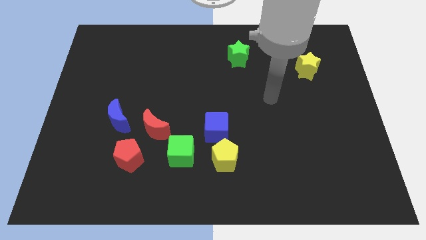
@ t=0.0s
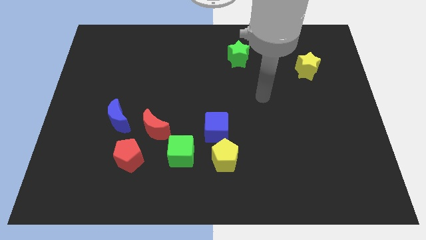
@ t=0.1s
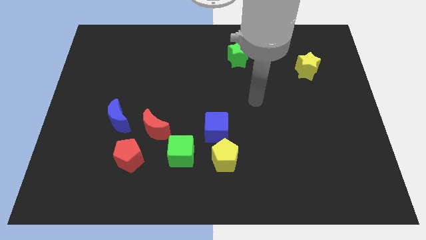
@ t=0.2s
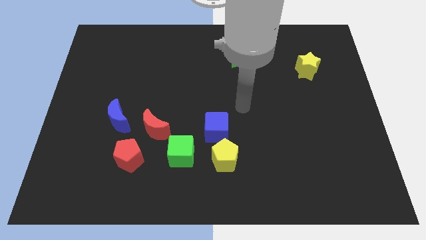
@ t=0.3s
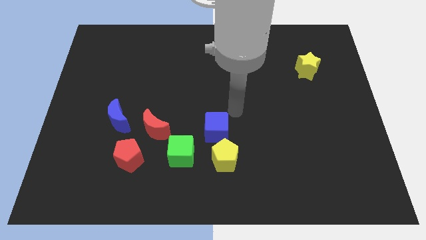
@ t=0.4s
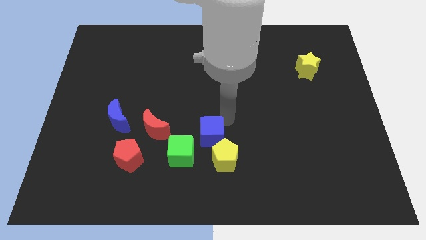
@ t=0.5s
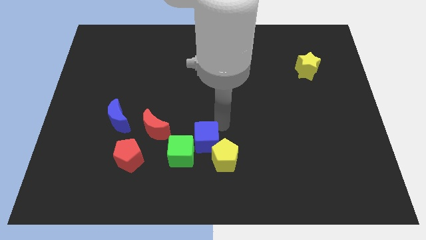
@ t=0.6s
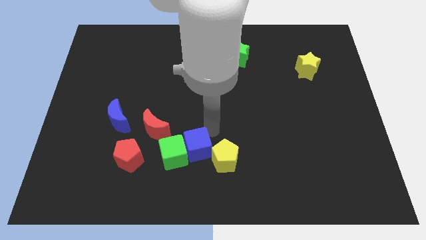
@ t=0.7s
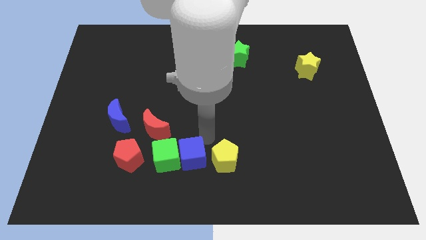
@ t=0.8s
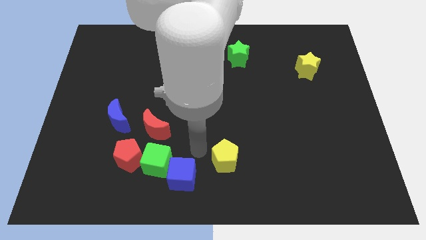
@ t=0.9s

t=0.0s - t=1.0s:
pull the yellow pentagon apart from the blue cube and green cube

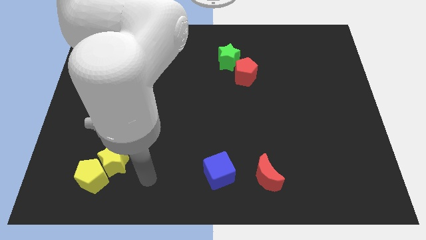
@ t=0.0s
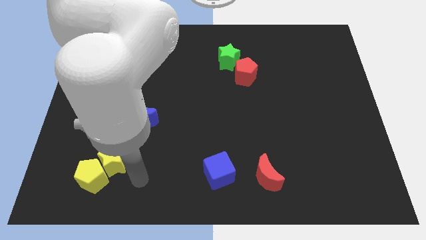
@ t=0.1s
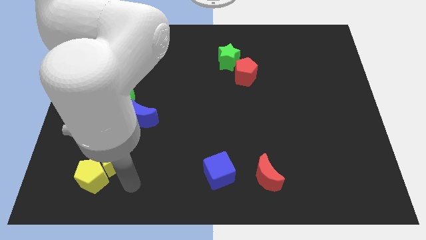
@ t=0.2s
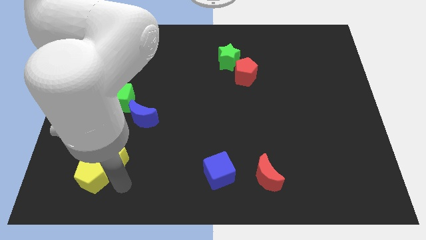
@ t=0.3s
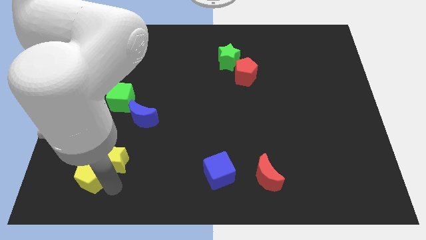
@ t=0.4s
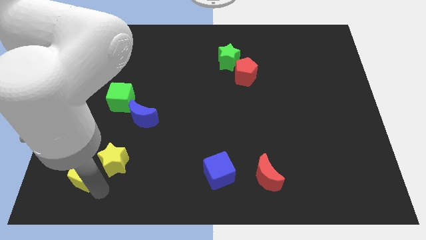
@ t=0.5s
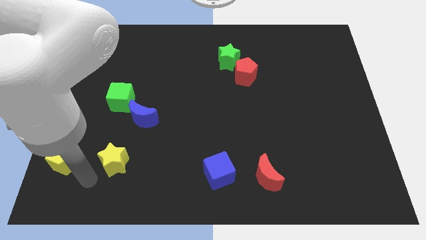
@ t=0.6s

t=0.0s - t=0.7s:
separate the yellow star from the yellow pentagon

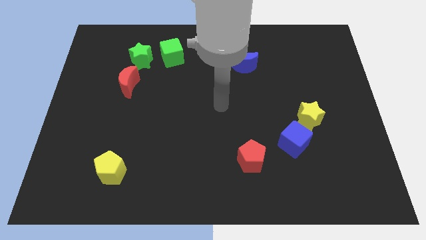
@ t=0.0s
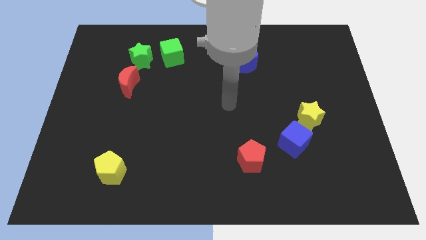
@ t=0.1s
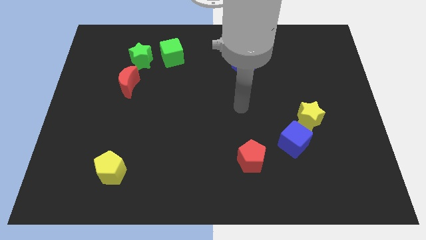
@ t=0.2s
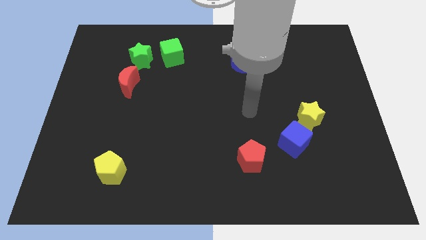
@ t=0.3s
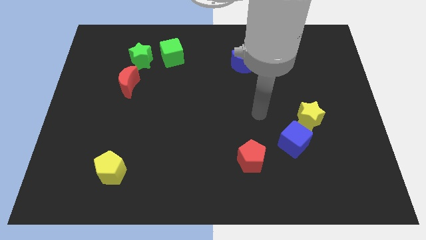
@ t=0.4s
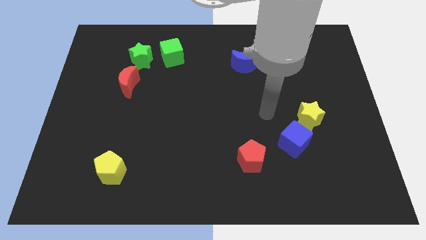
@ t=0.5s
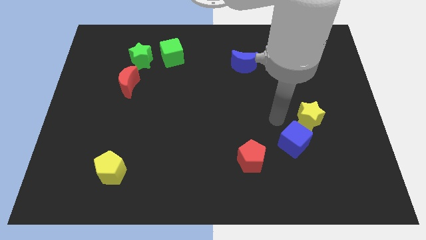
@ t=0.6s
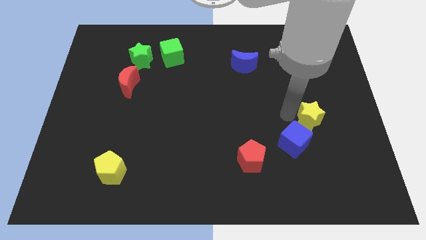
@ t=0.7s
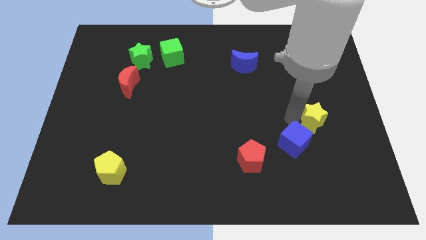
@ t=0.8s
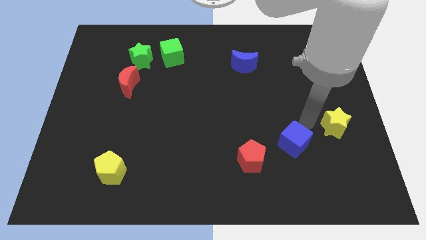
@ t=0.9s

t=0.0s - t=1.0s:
move the blue cube away from the yellow star

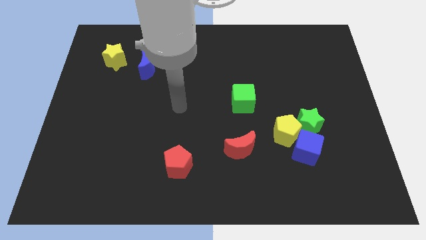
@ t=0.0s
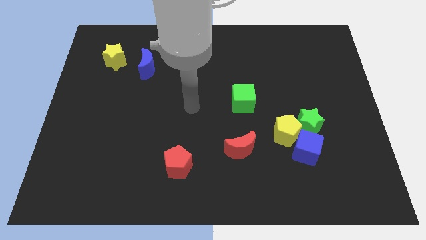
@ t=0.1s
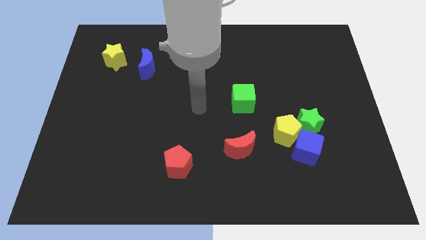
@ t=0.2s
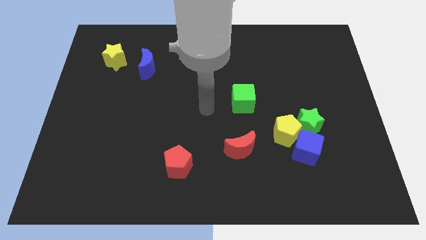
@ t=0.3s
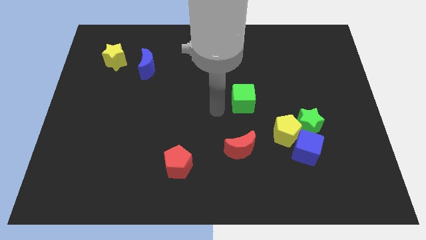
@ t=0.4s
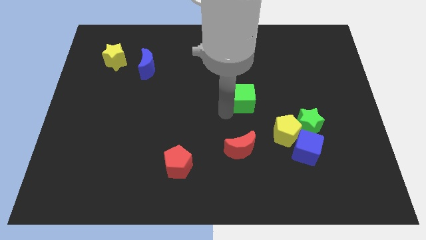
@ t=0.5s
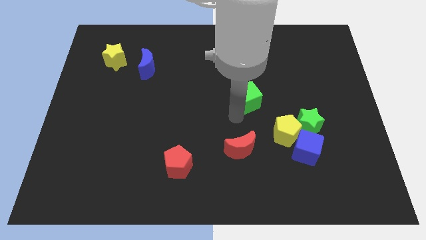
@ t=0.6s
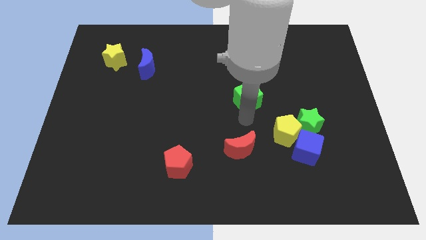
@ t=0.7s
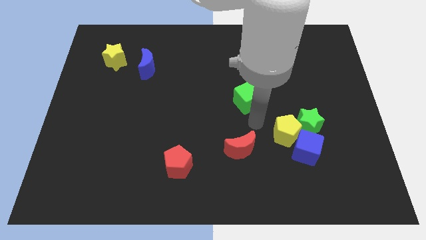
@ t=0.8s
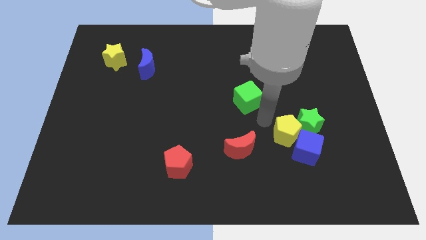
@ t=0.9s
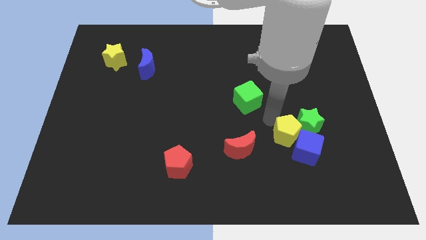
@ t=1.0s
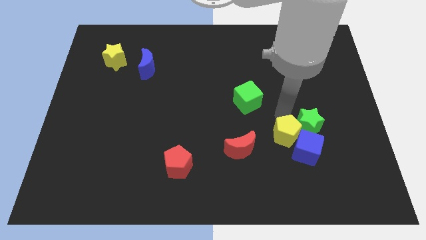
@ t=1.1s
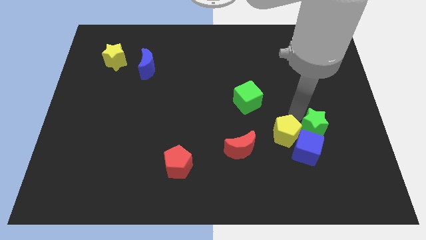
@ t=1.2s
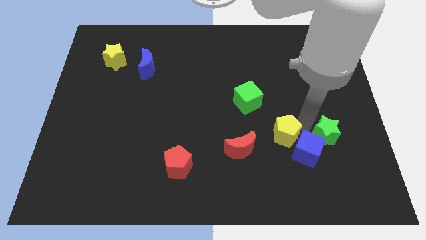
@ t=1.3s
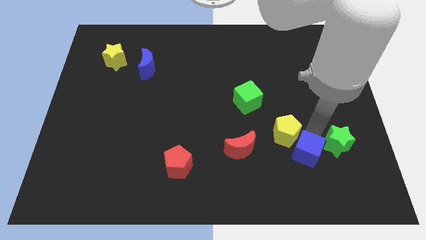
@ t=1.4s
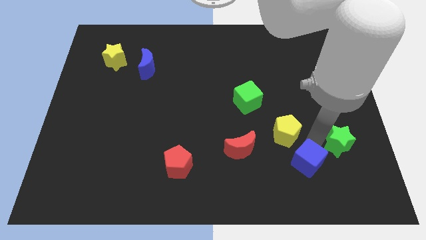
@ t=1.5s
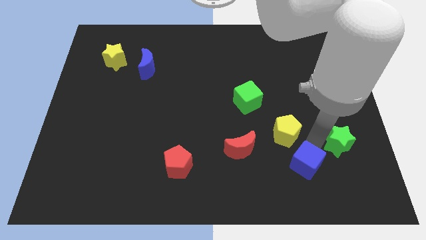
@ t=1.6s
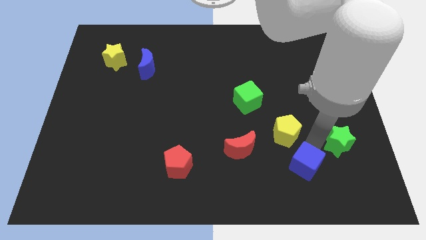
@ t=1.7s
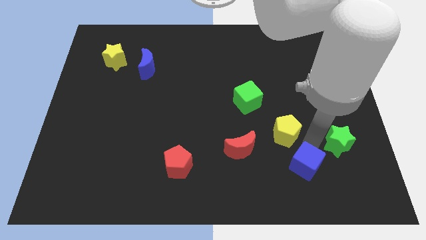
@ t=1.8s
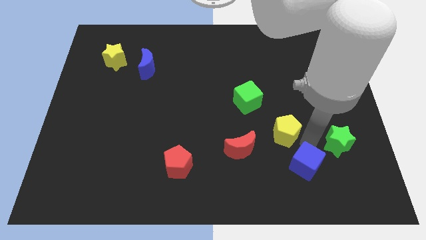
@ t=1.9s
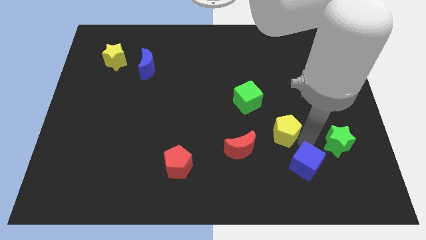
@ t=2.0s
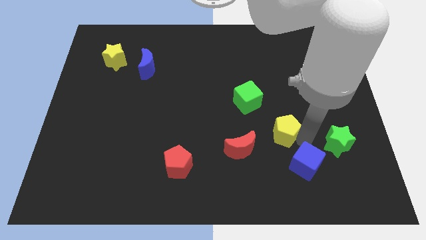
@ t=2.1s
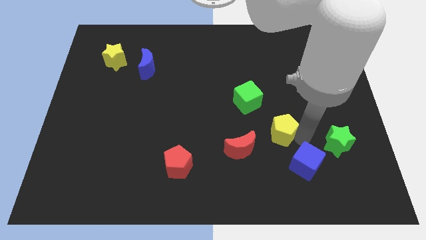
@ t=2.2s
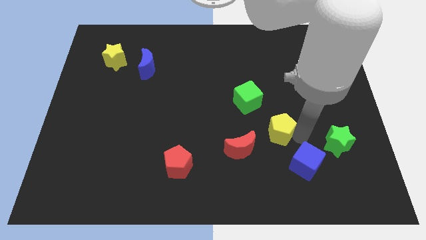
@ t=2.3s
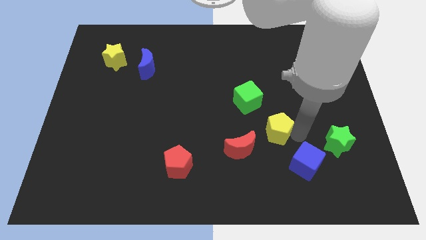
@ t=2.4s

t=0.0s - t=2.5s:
move the yellow pentagon away from the green star and blue cube

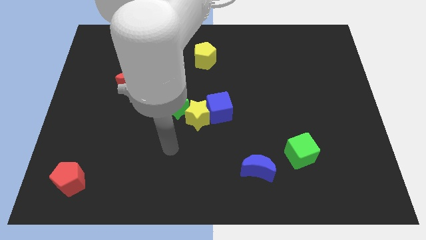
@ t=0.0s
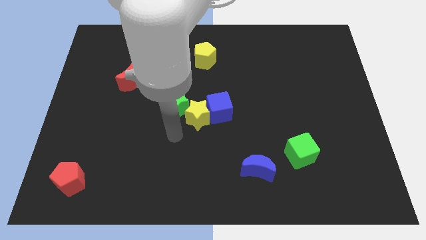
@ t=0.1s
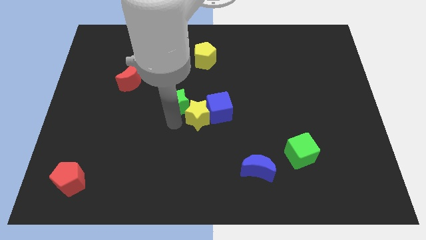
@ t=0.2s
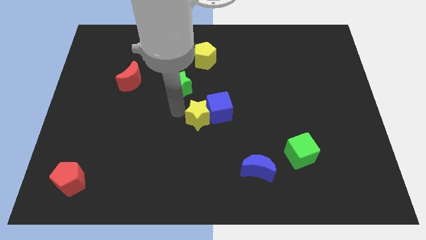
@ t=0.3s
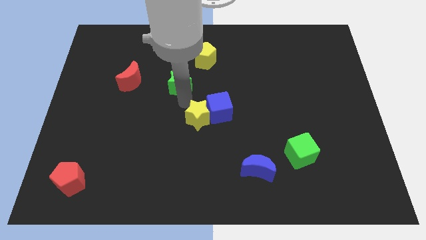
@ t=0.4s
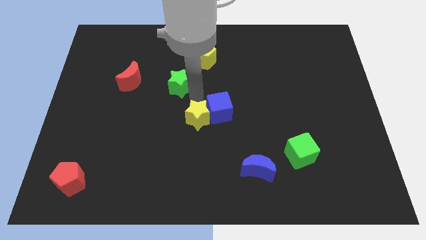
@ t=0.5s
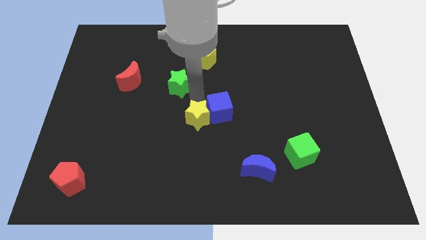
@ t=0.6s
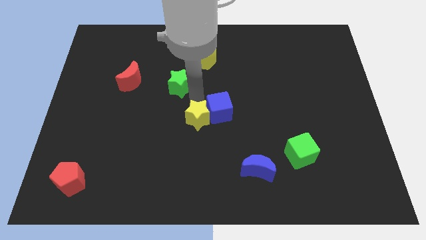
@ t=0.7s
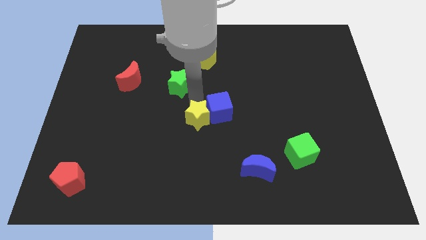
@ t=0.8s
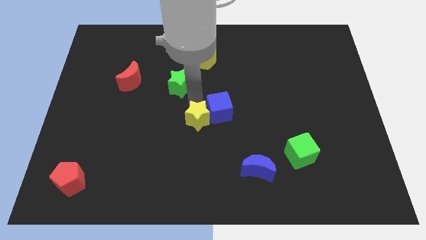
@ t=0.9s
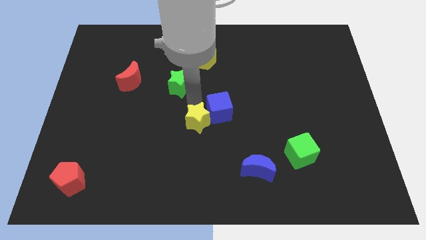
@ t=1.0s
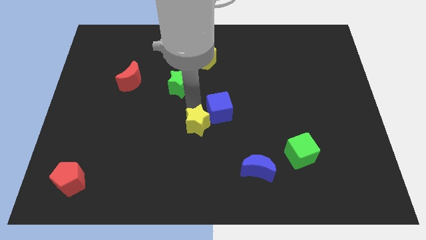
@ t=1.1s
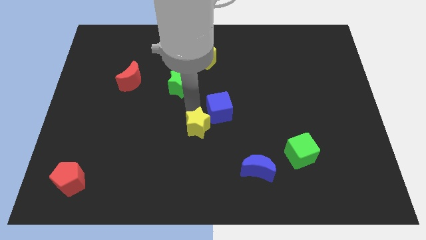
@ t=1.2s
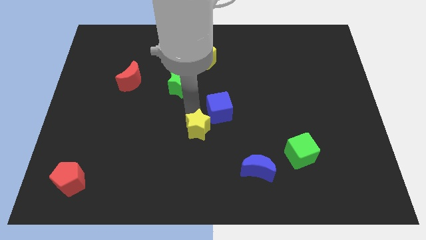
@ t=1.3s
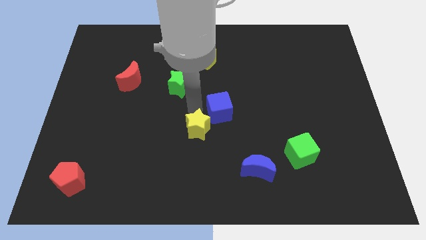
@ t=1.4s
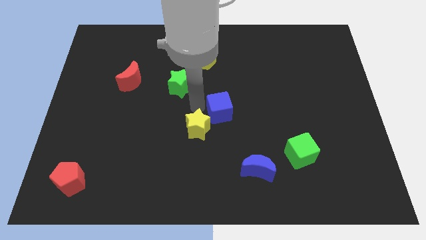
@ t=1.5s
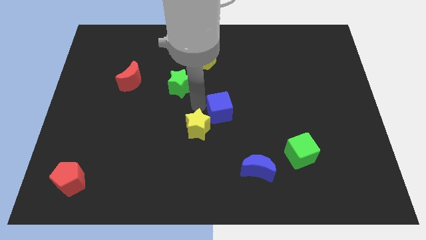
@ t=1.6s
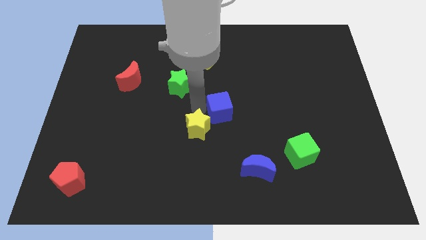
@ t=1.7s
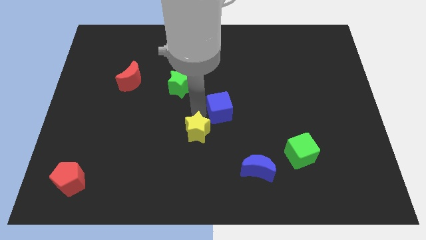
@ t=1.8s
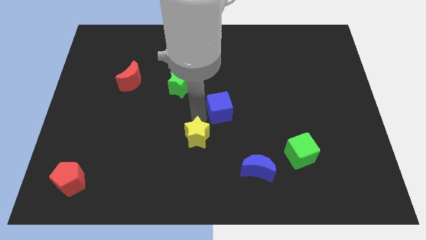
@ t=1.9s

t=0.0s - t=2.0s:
move the yellow star away from the blue cube and green star

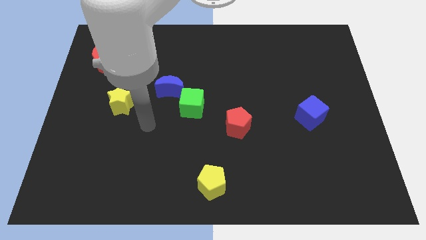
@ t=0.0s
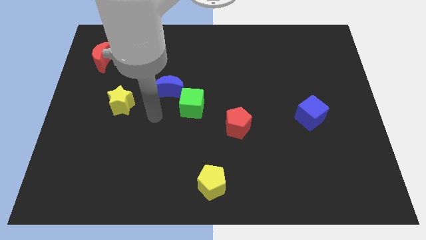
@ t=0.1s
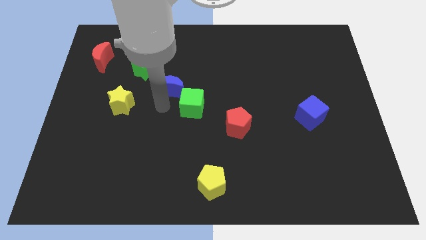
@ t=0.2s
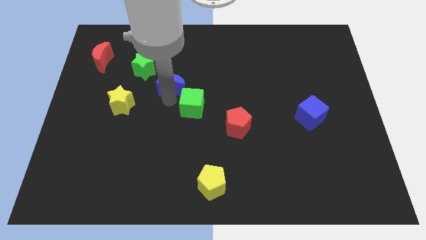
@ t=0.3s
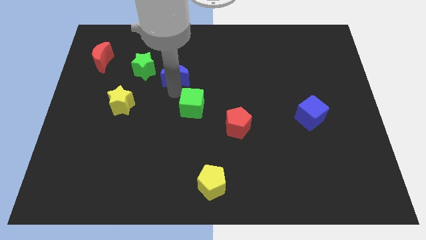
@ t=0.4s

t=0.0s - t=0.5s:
move the green cube away from the blue moon

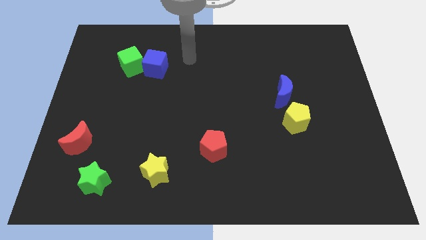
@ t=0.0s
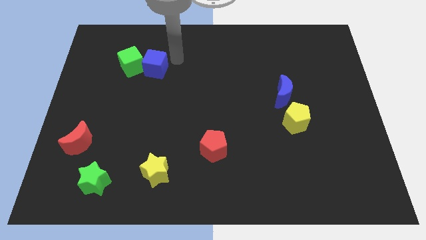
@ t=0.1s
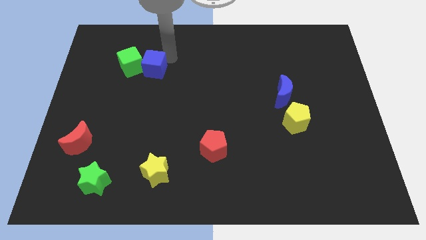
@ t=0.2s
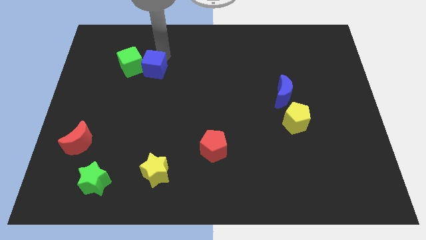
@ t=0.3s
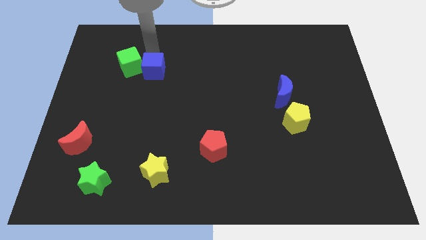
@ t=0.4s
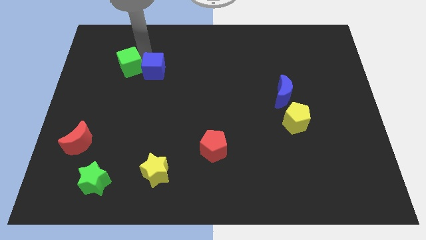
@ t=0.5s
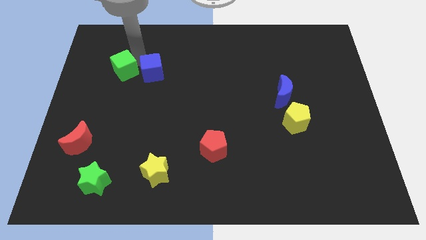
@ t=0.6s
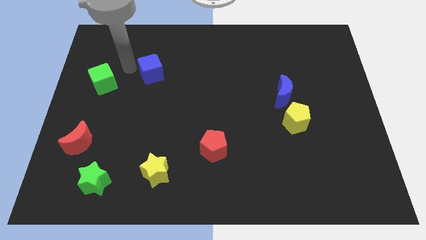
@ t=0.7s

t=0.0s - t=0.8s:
move the blue cube away from the green cube

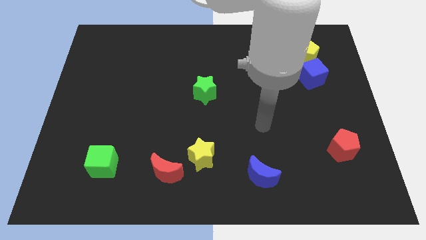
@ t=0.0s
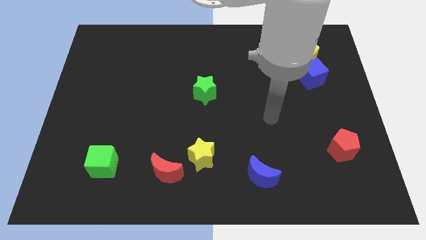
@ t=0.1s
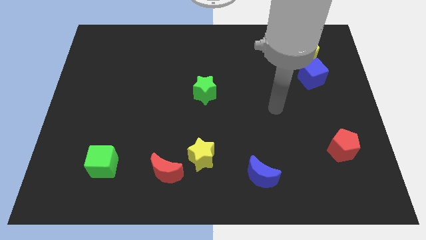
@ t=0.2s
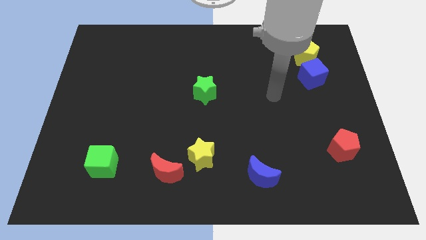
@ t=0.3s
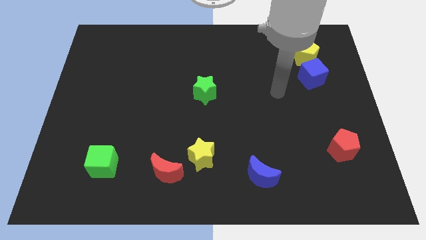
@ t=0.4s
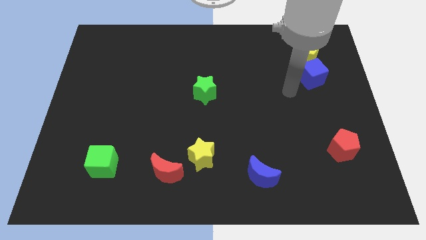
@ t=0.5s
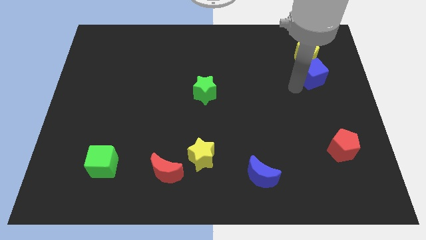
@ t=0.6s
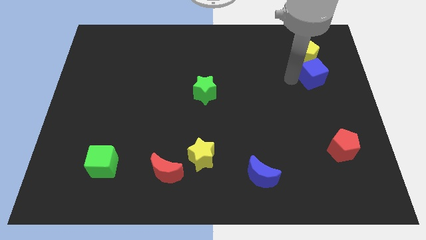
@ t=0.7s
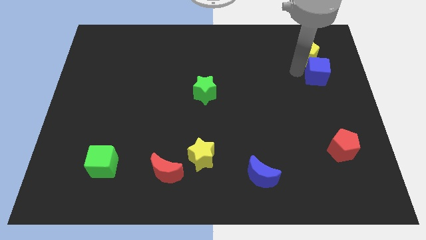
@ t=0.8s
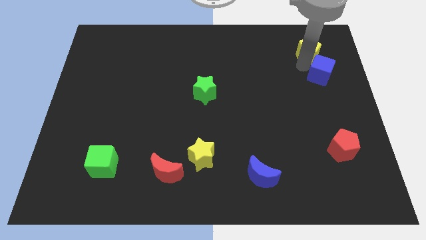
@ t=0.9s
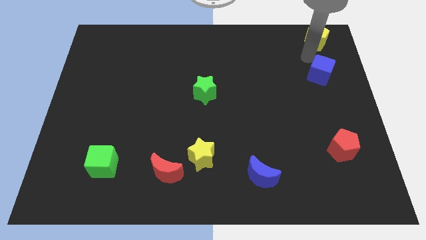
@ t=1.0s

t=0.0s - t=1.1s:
move the blue cube away from the yellow pentagon
